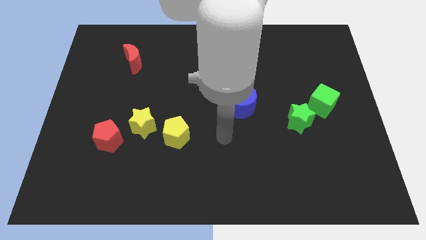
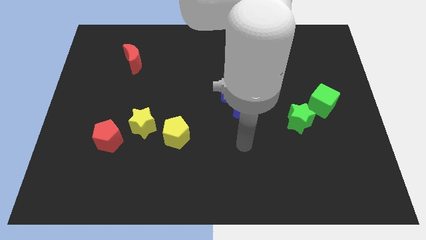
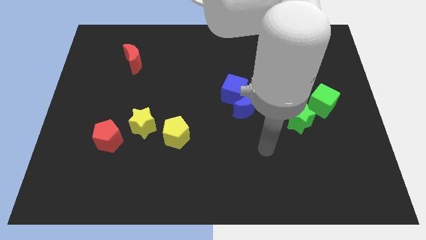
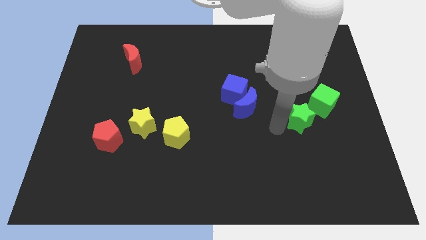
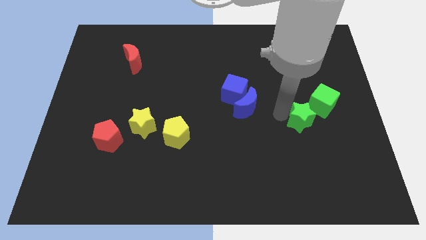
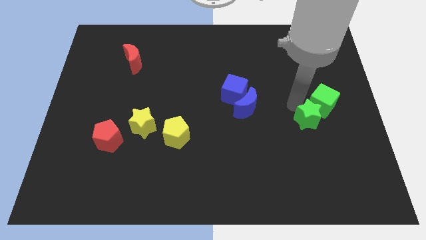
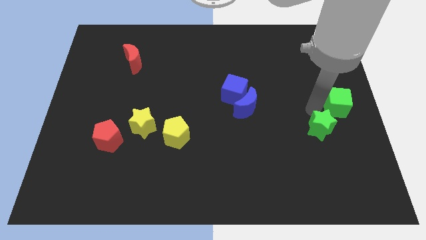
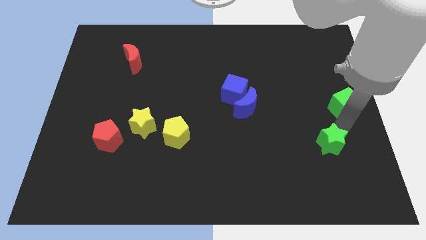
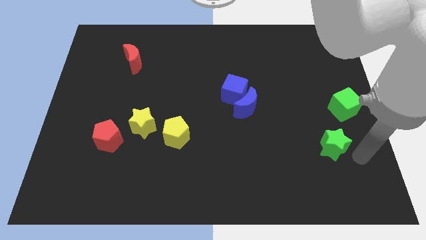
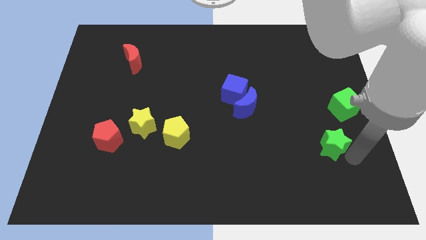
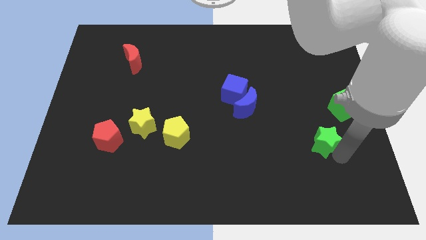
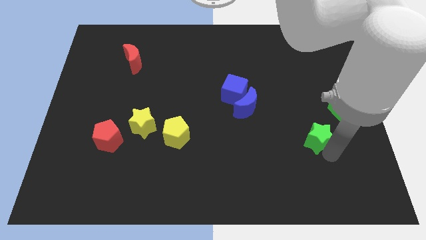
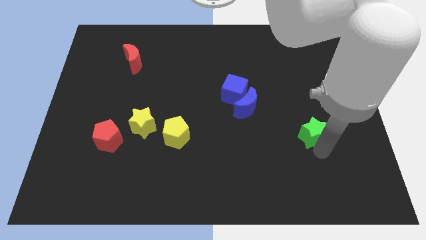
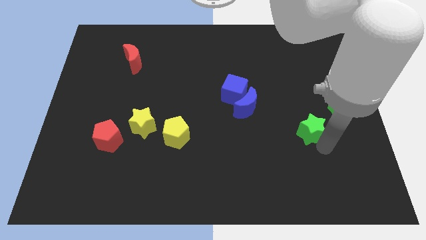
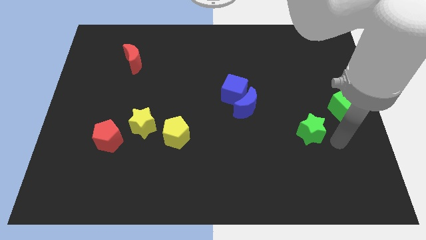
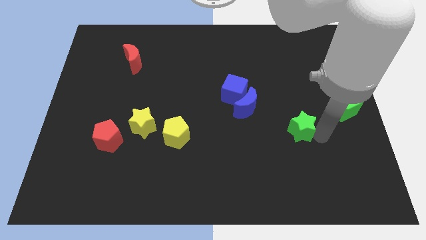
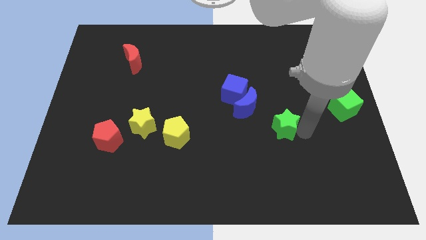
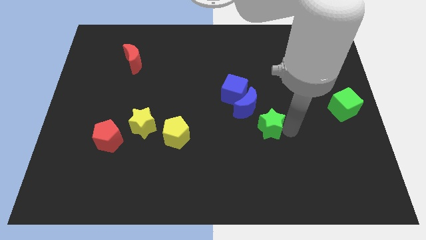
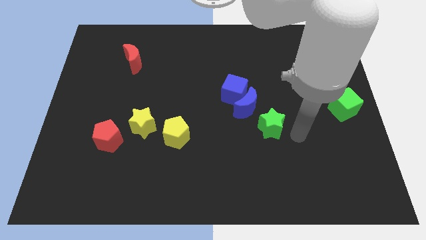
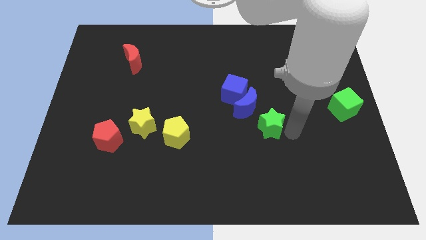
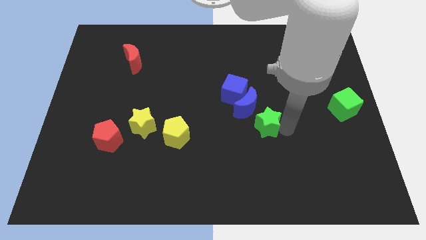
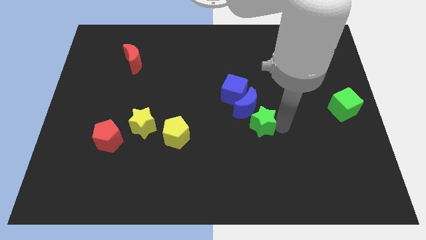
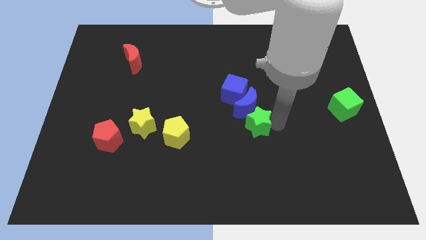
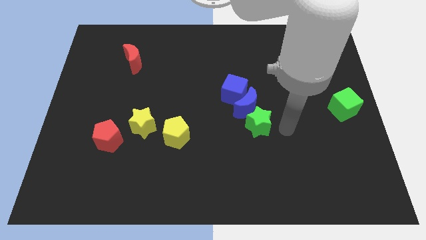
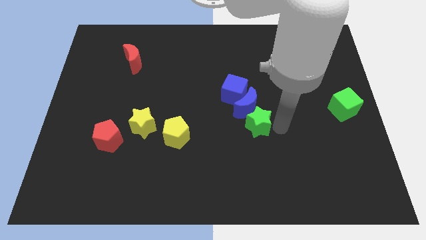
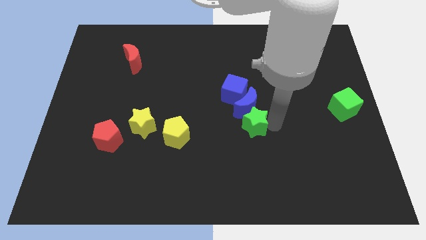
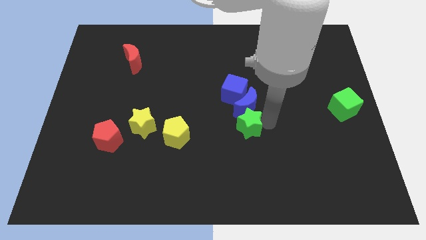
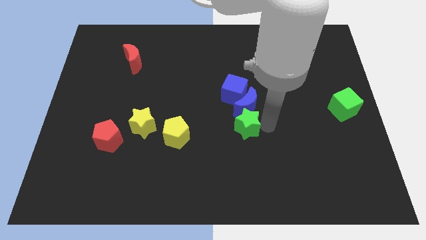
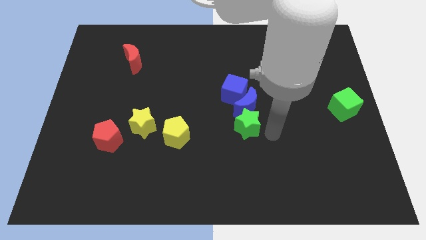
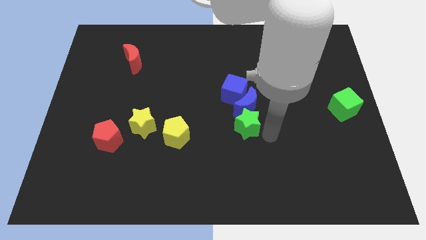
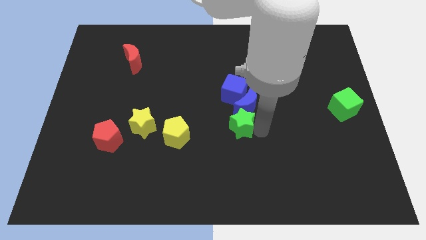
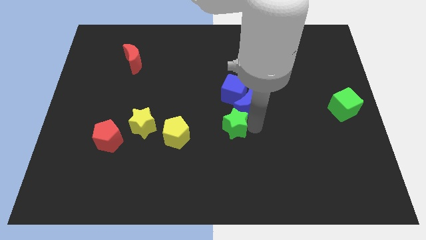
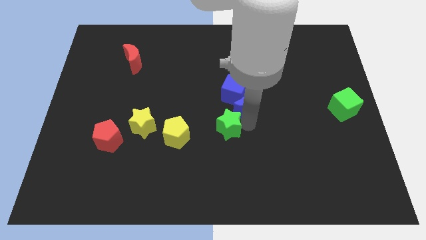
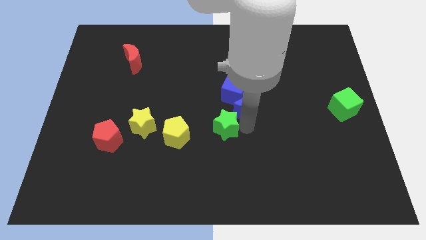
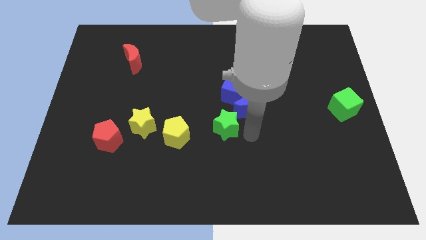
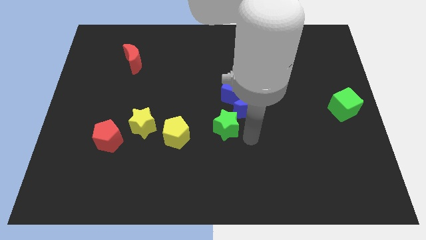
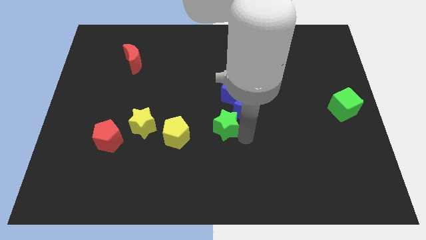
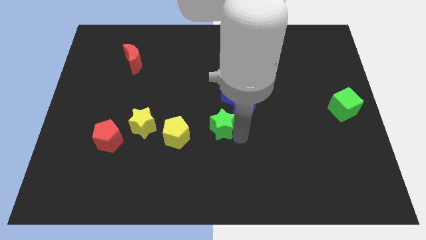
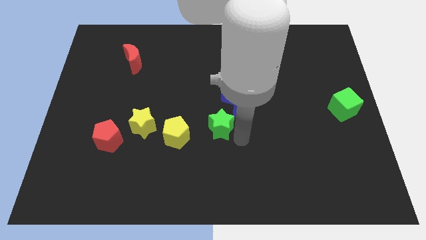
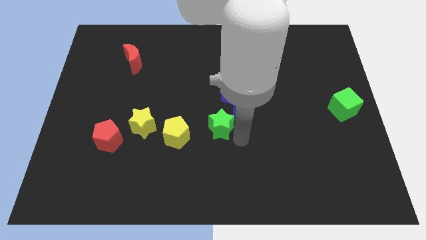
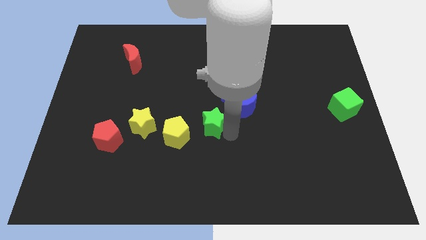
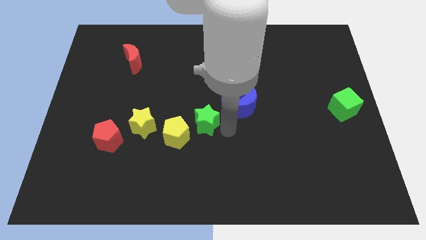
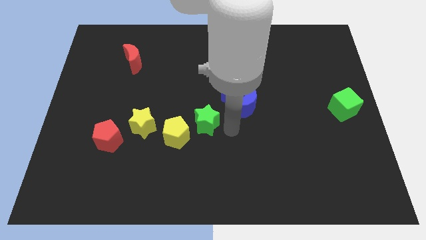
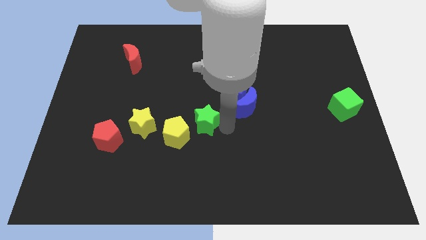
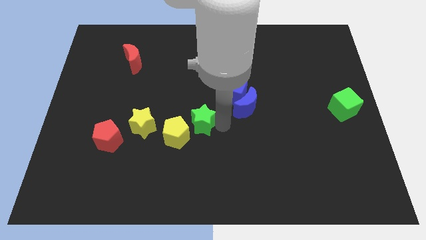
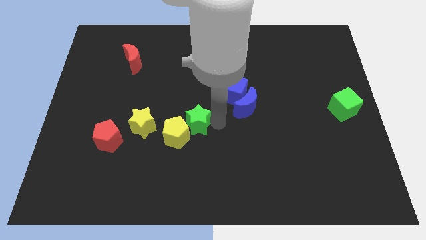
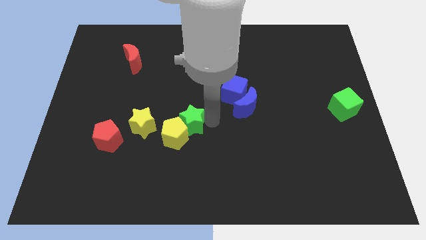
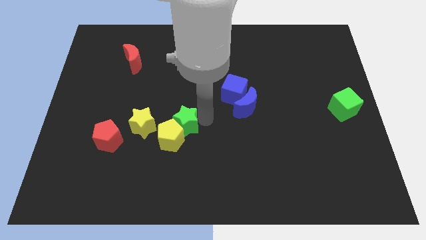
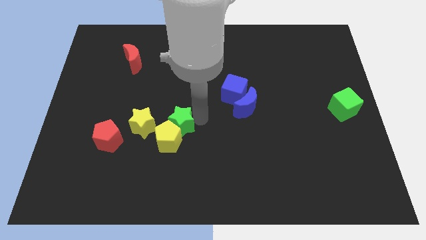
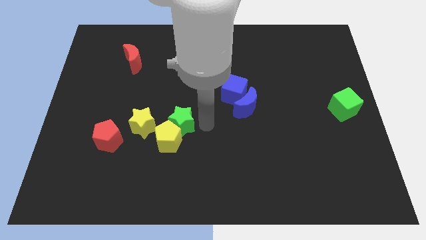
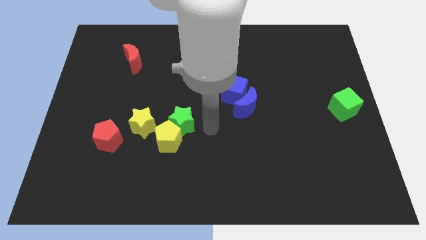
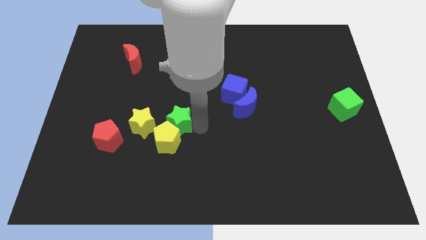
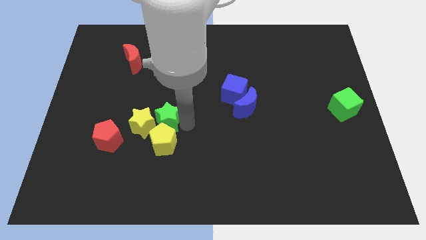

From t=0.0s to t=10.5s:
push the green star towards the yellow star

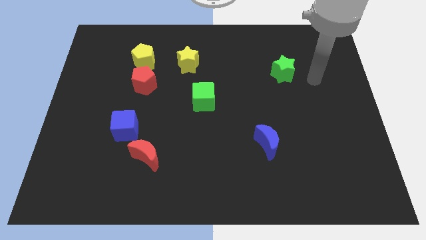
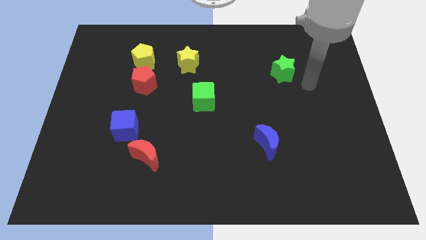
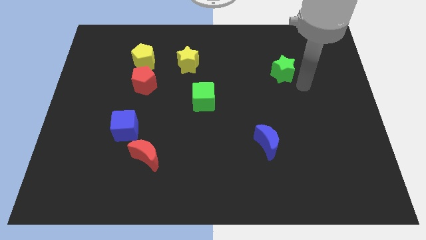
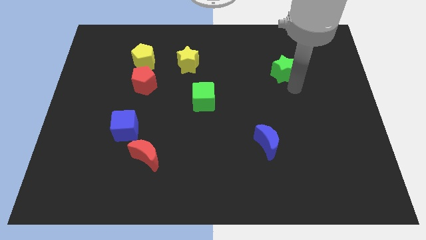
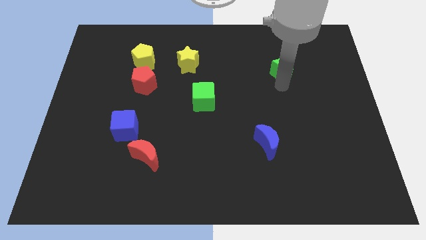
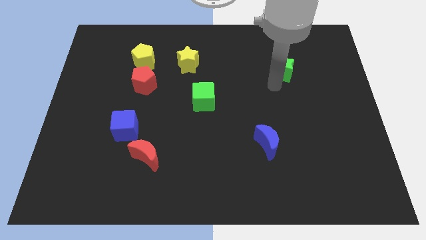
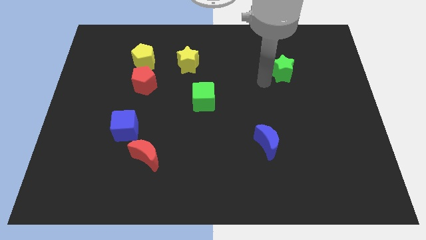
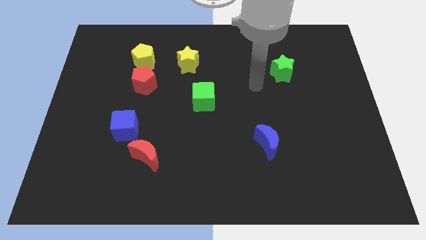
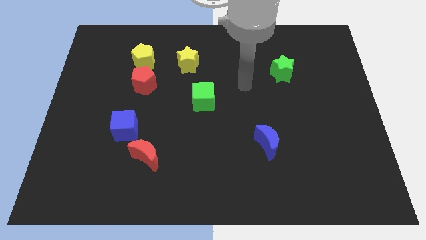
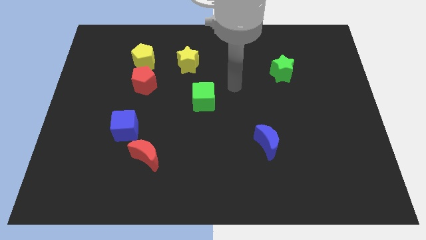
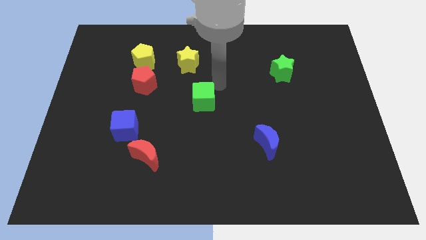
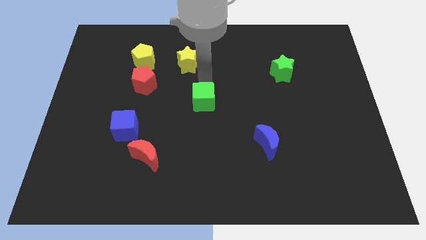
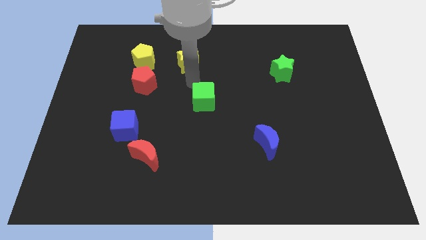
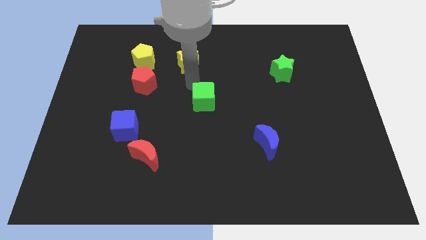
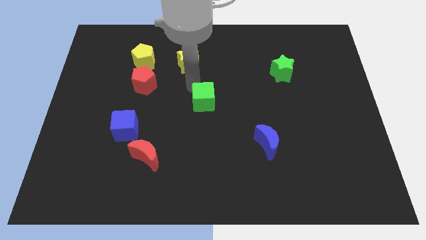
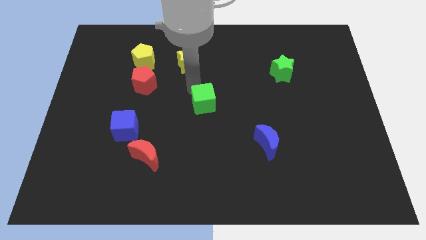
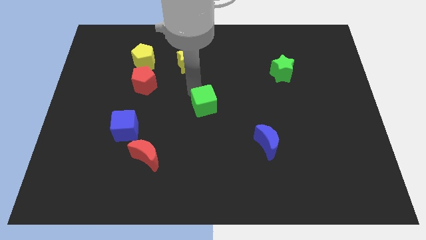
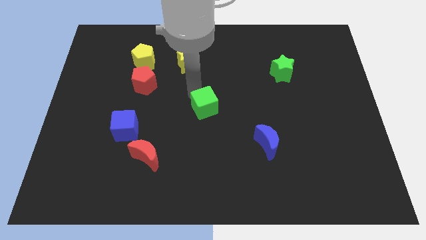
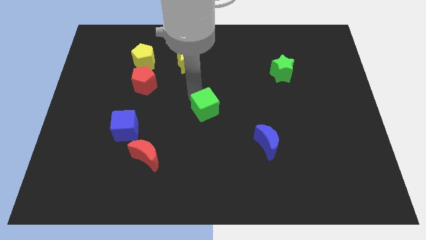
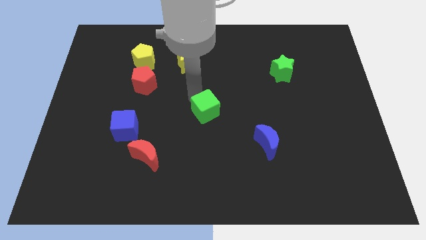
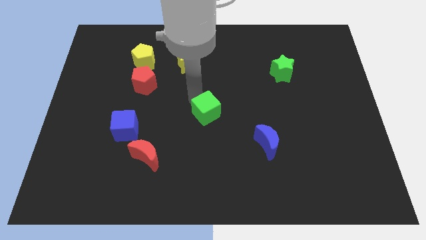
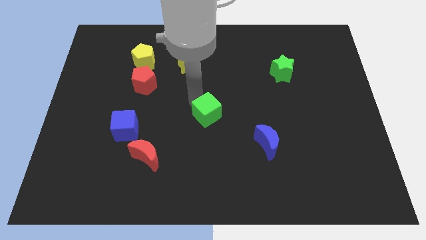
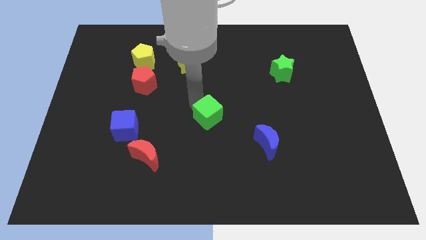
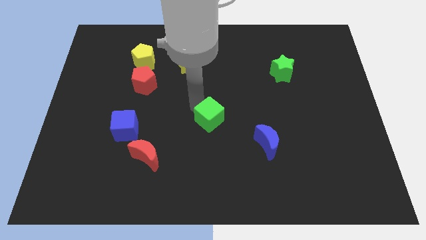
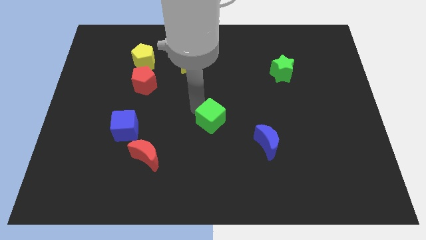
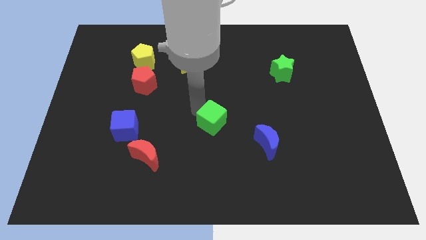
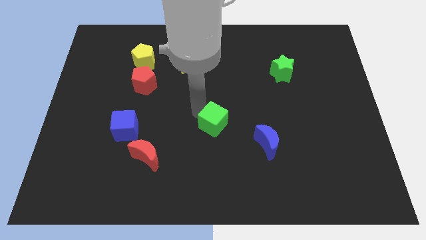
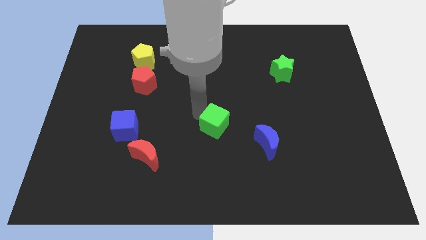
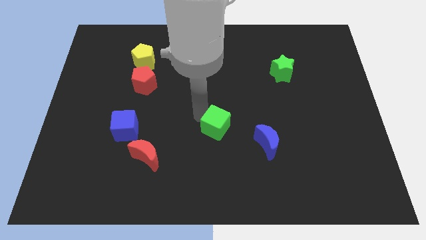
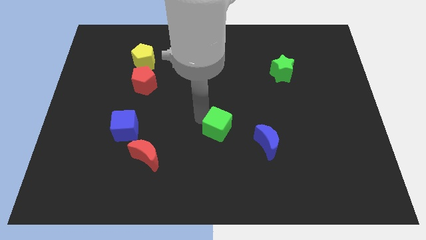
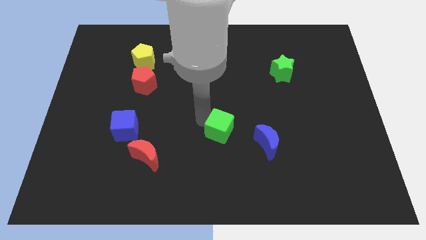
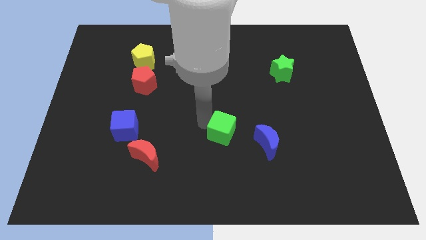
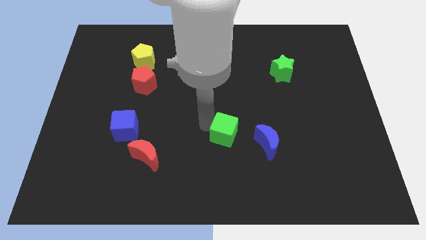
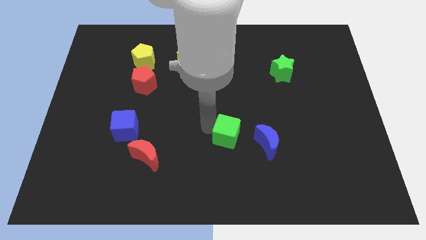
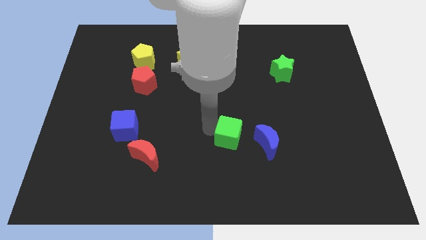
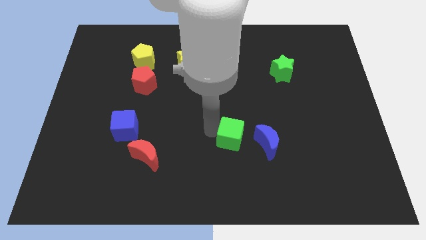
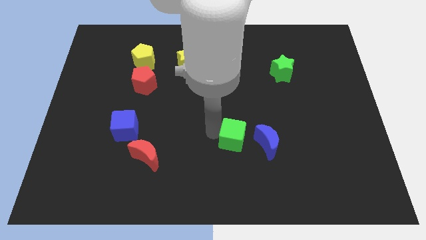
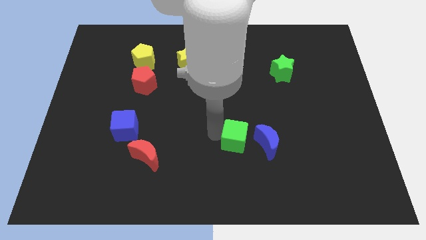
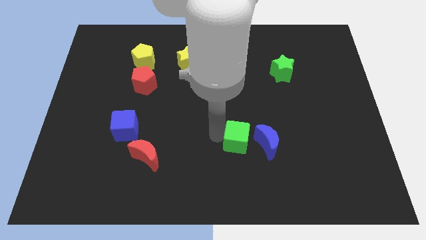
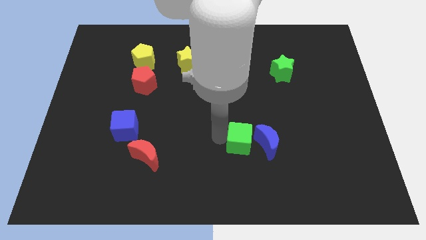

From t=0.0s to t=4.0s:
move the green cube close to the blue moon
